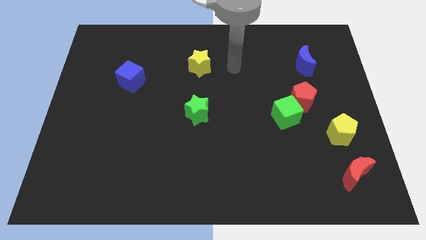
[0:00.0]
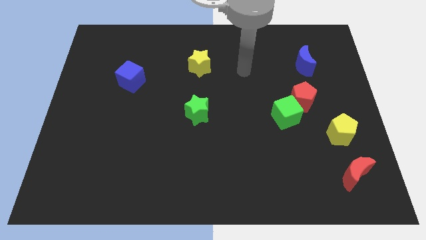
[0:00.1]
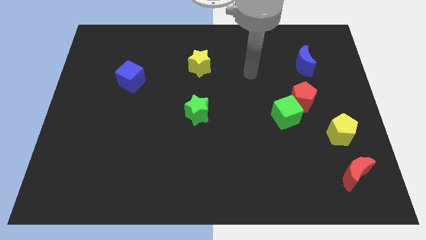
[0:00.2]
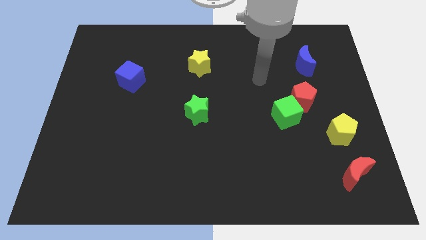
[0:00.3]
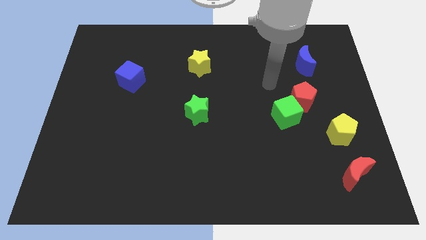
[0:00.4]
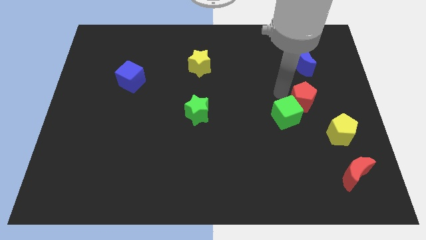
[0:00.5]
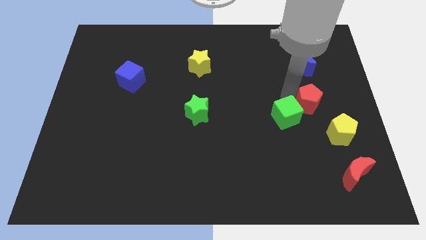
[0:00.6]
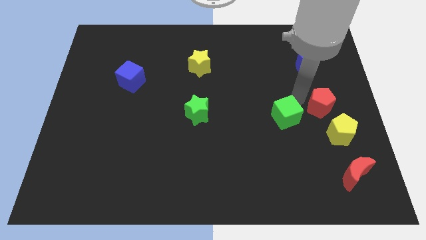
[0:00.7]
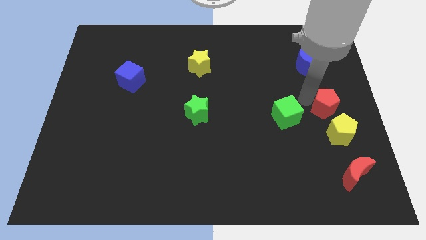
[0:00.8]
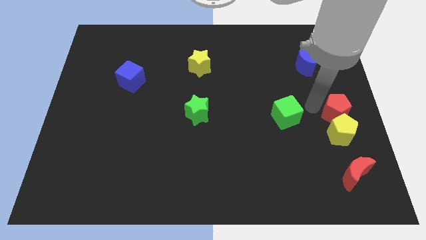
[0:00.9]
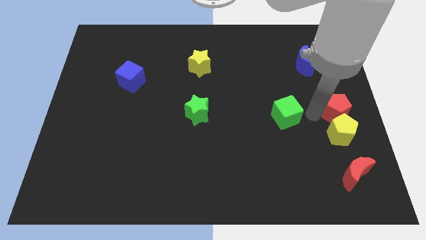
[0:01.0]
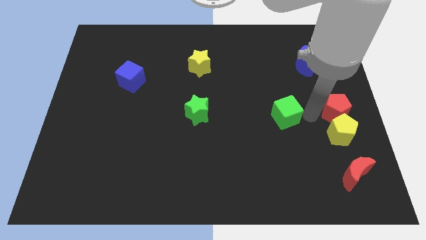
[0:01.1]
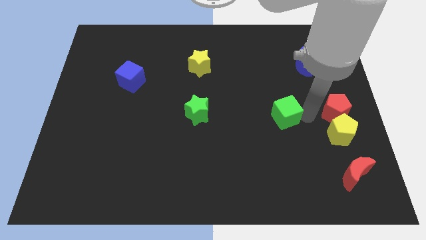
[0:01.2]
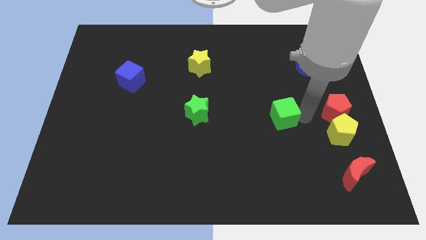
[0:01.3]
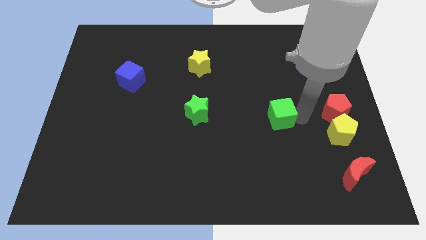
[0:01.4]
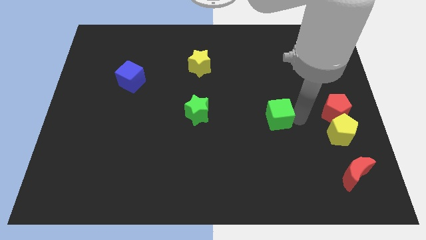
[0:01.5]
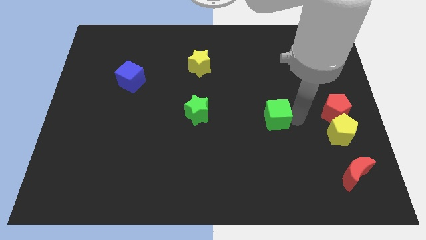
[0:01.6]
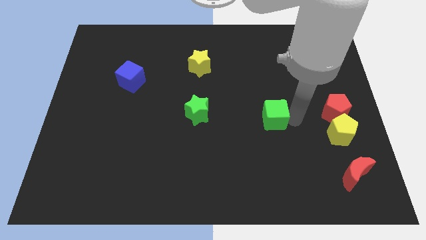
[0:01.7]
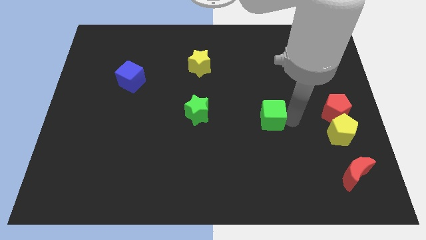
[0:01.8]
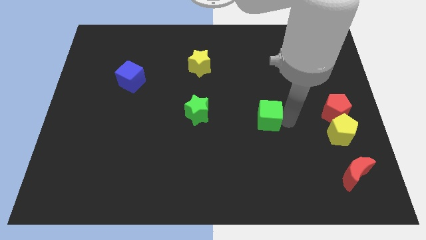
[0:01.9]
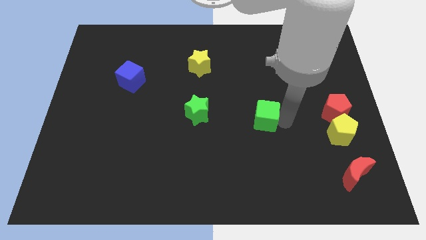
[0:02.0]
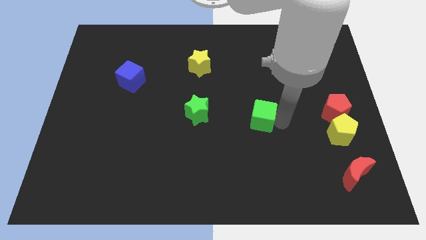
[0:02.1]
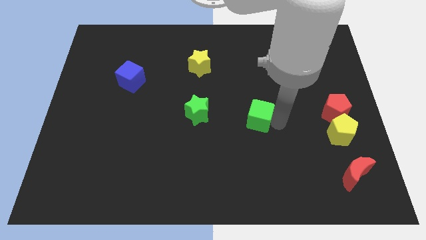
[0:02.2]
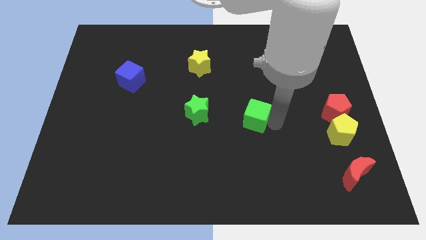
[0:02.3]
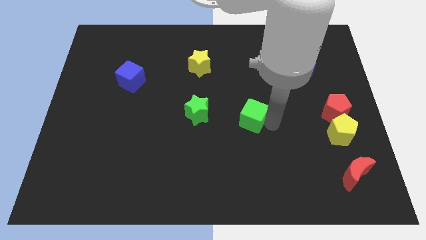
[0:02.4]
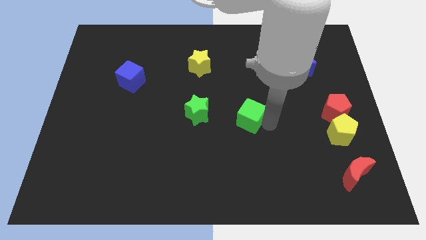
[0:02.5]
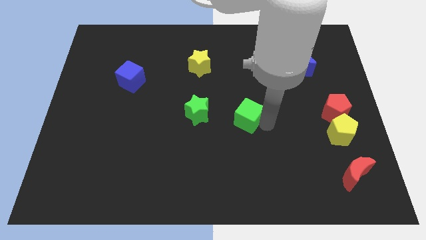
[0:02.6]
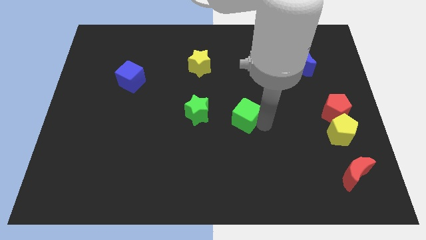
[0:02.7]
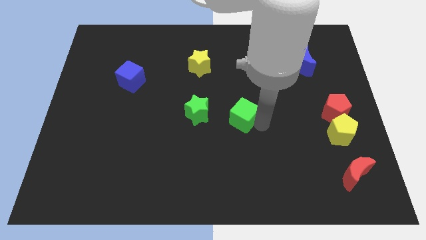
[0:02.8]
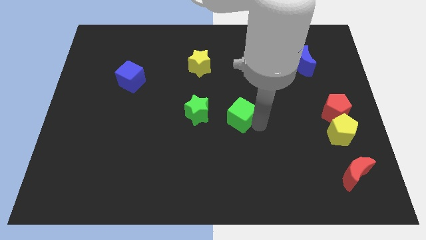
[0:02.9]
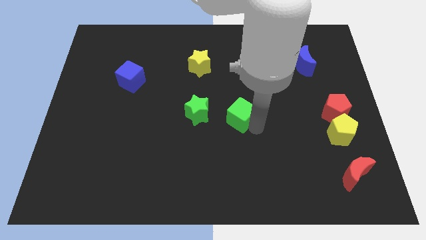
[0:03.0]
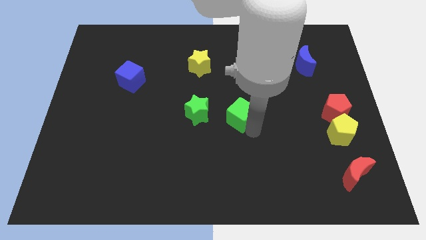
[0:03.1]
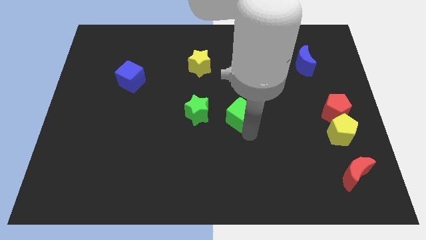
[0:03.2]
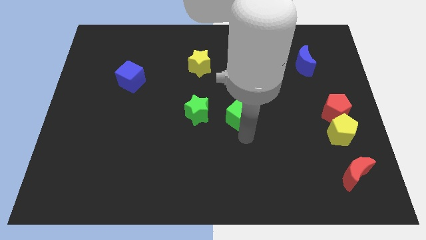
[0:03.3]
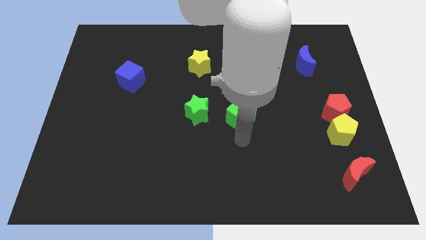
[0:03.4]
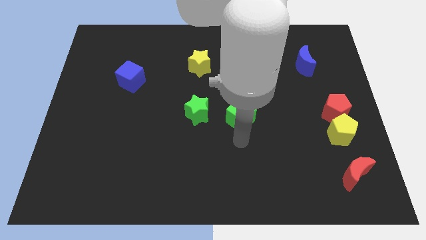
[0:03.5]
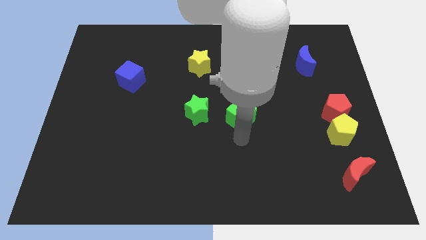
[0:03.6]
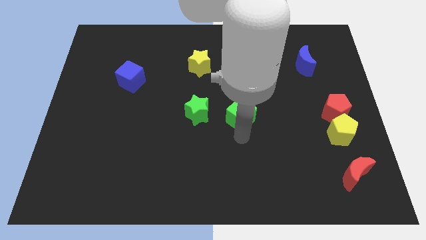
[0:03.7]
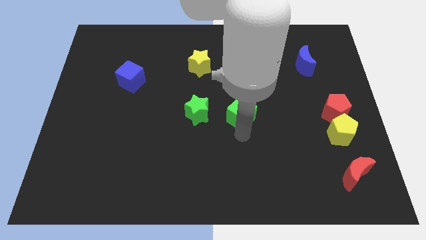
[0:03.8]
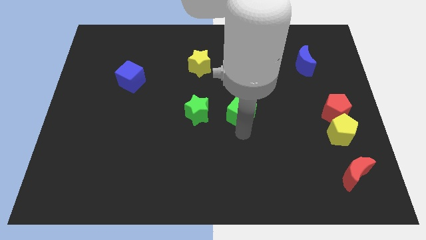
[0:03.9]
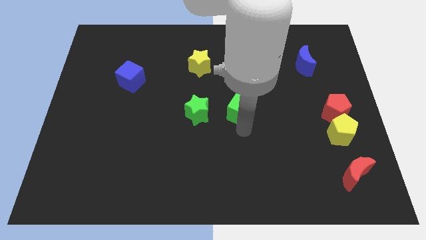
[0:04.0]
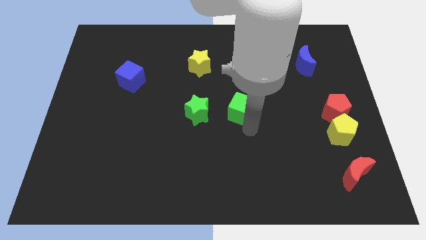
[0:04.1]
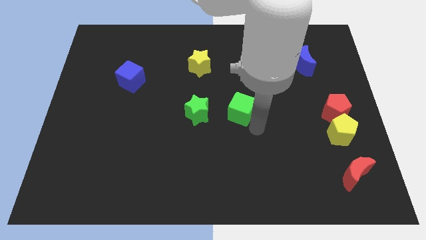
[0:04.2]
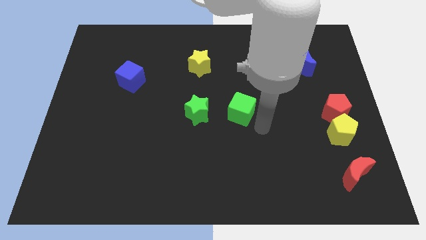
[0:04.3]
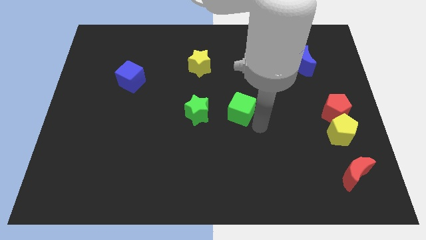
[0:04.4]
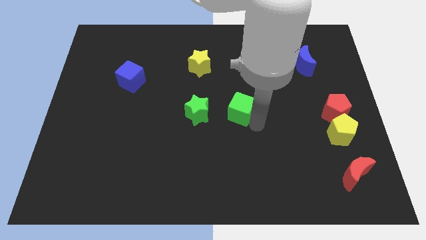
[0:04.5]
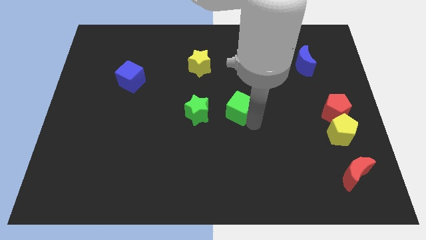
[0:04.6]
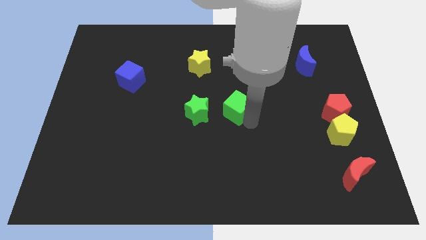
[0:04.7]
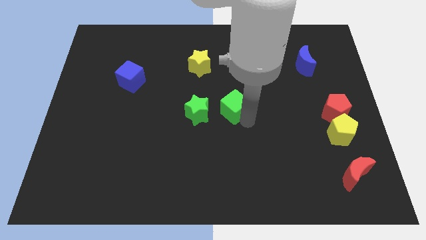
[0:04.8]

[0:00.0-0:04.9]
put the green cube diagonally up and to the right of the green star

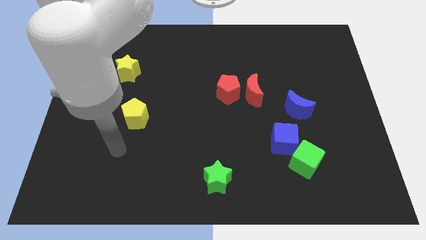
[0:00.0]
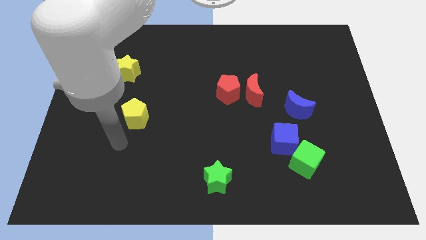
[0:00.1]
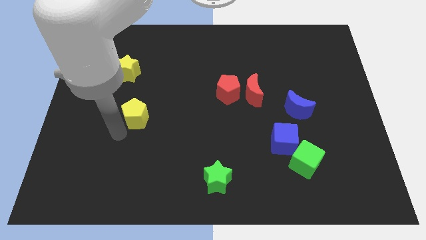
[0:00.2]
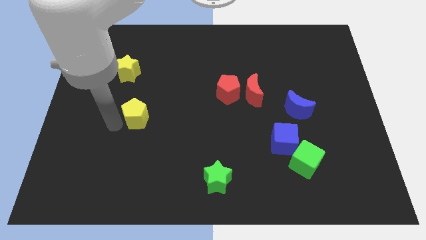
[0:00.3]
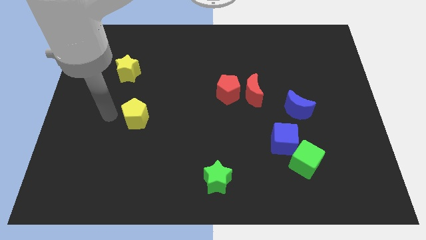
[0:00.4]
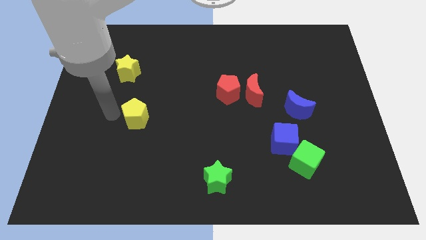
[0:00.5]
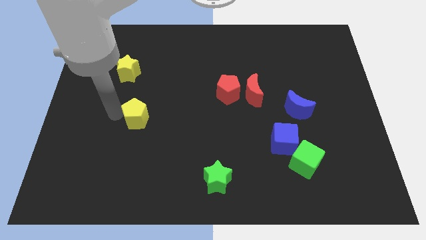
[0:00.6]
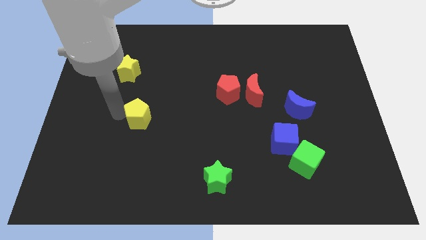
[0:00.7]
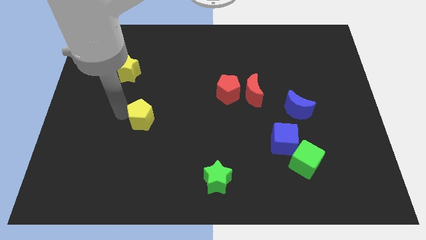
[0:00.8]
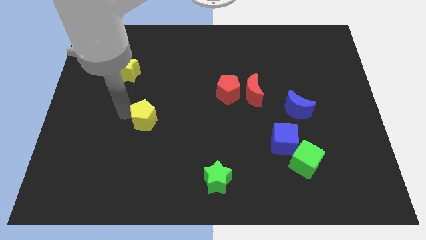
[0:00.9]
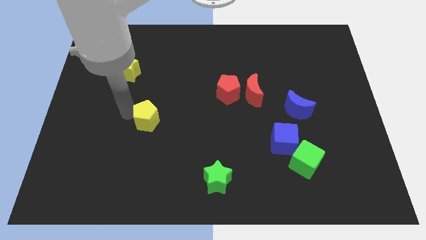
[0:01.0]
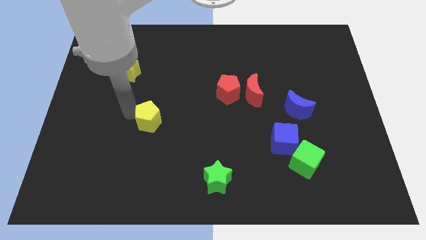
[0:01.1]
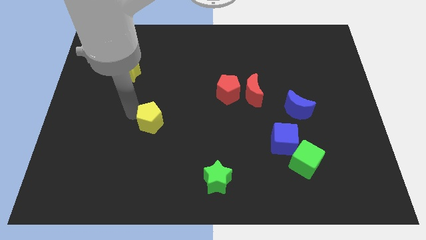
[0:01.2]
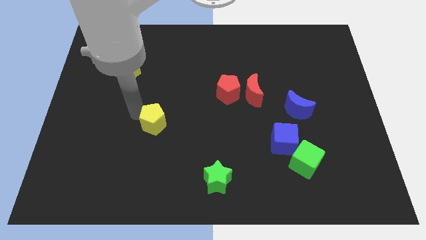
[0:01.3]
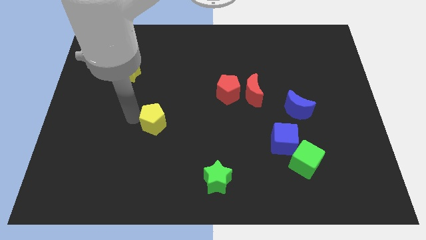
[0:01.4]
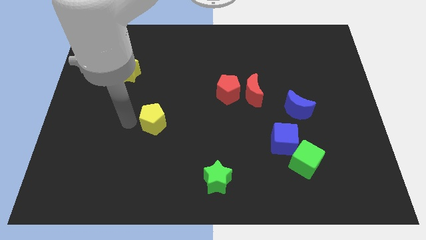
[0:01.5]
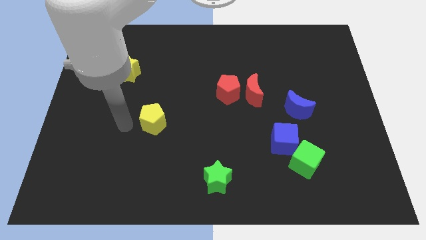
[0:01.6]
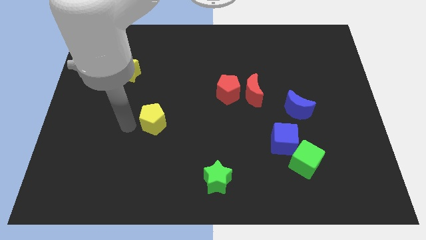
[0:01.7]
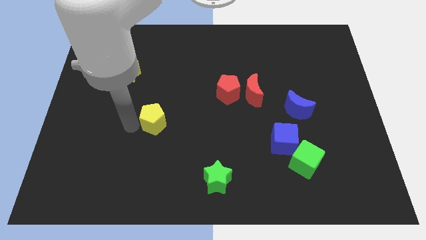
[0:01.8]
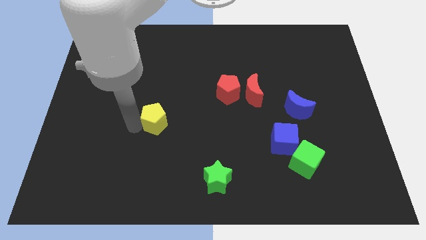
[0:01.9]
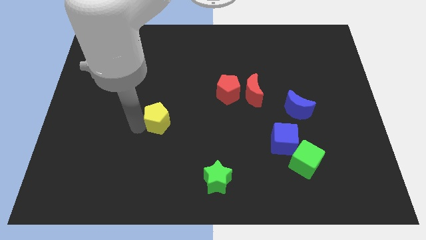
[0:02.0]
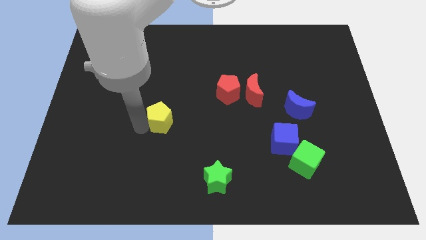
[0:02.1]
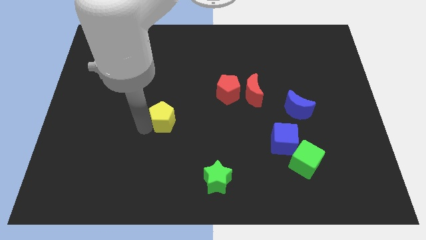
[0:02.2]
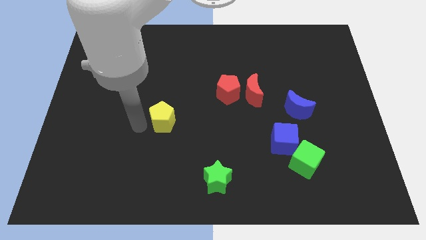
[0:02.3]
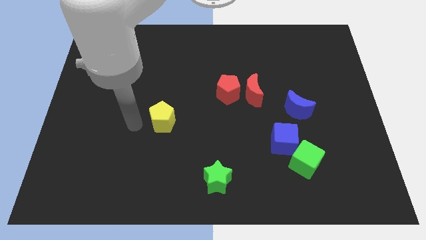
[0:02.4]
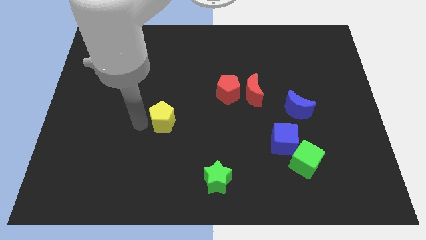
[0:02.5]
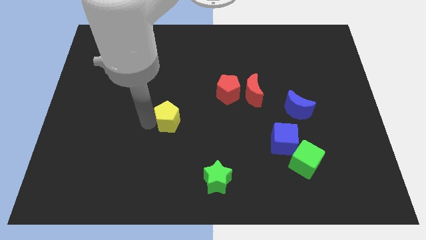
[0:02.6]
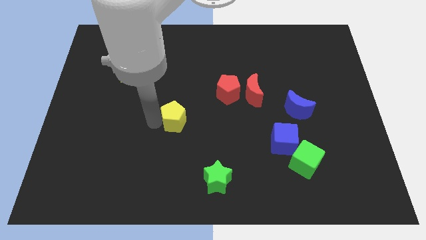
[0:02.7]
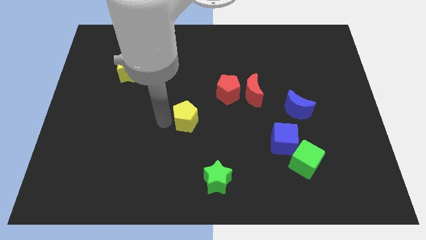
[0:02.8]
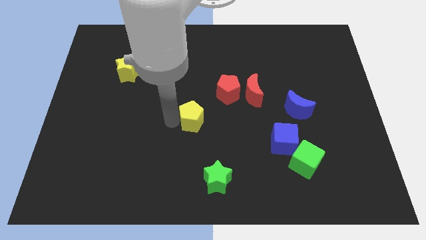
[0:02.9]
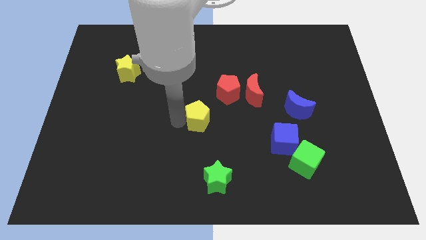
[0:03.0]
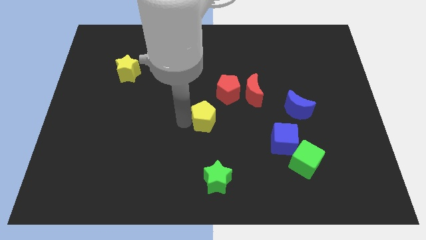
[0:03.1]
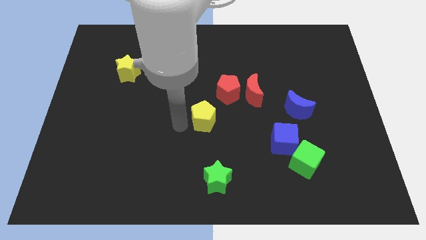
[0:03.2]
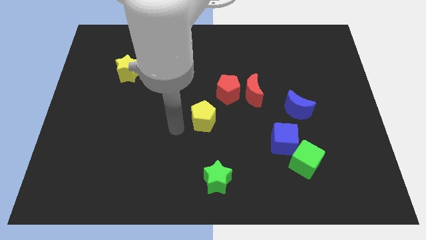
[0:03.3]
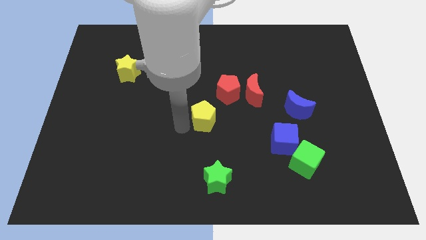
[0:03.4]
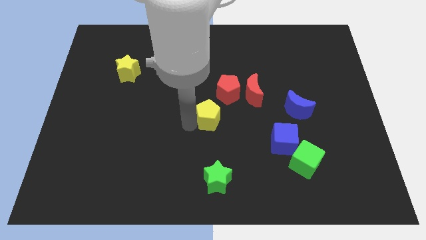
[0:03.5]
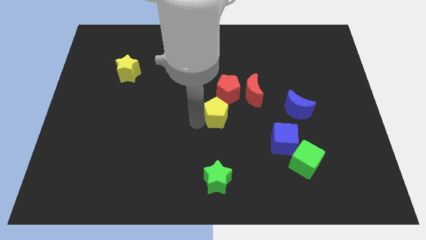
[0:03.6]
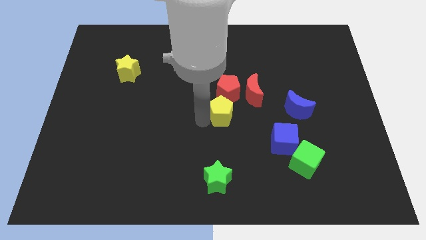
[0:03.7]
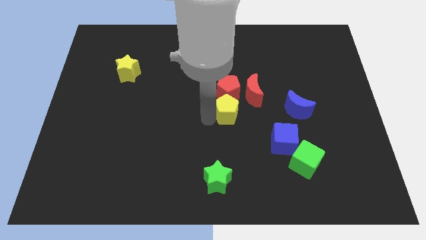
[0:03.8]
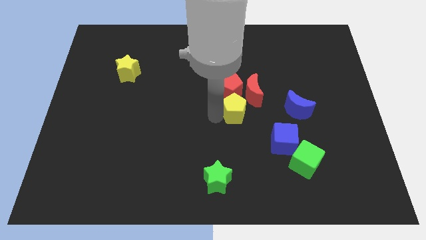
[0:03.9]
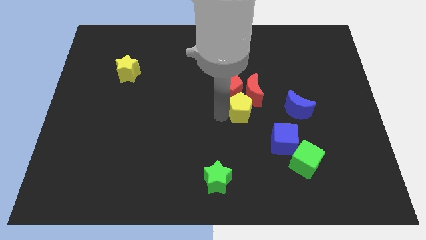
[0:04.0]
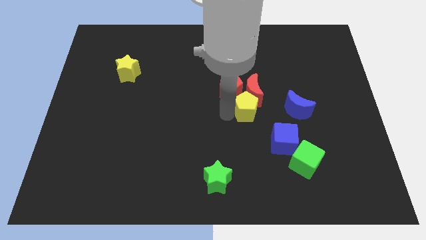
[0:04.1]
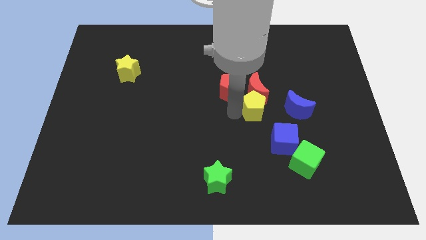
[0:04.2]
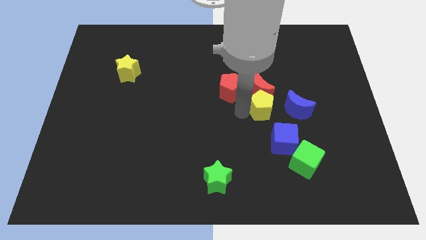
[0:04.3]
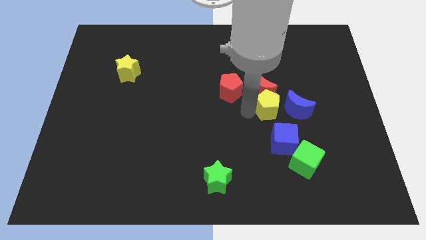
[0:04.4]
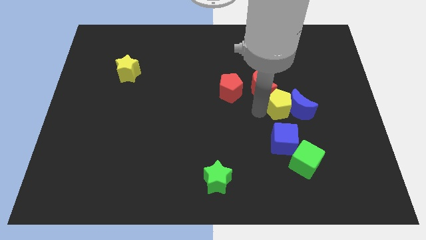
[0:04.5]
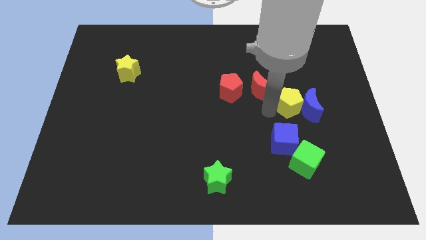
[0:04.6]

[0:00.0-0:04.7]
move the yellow pentagon to the right of the red moon
